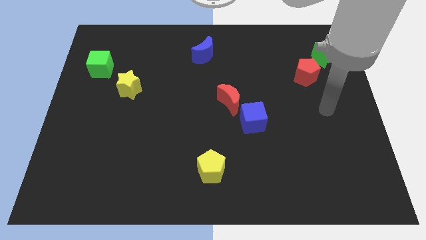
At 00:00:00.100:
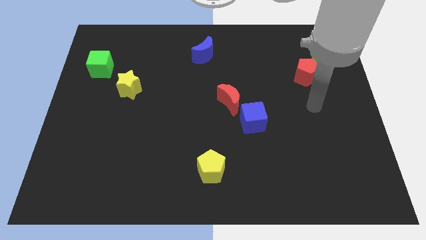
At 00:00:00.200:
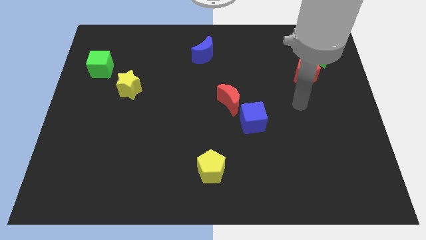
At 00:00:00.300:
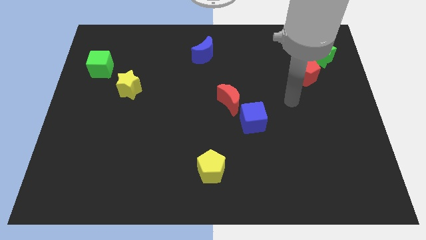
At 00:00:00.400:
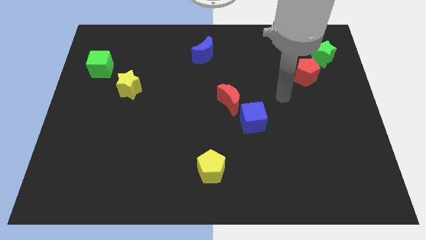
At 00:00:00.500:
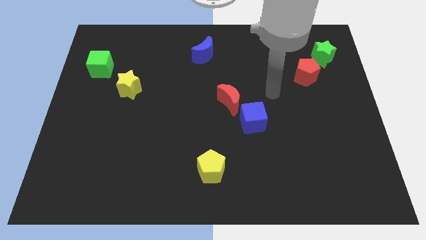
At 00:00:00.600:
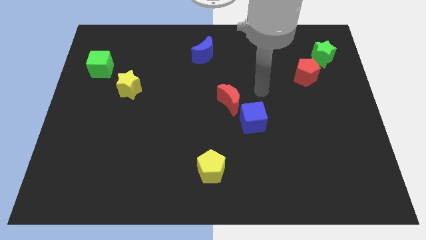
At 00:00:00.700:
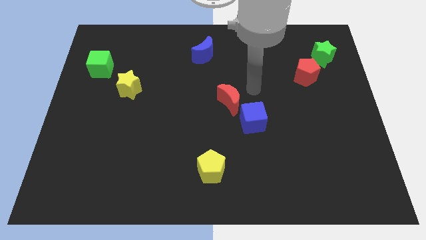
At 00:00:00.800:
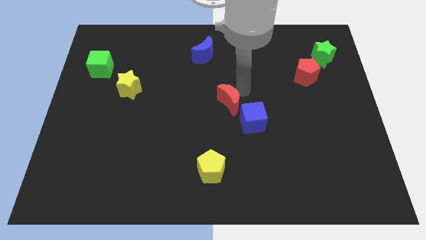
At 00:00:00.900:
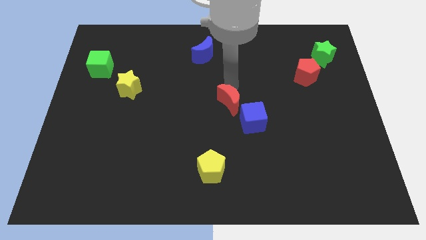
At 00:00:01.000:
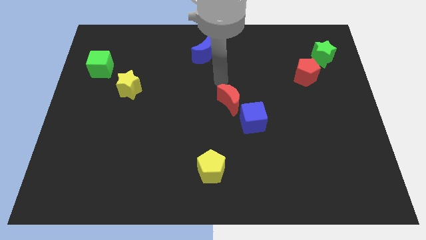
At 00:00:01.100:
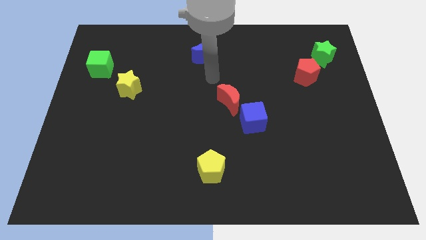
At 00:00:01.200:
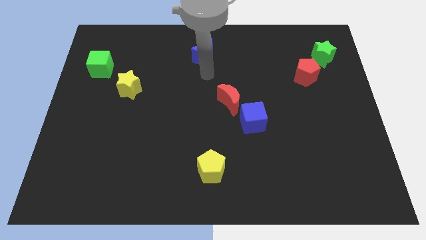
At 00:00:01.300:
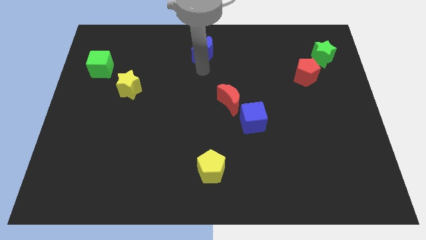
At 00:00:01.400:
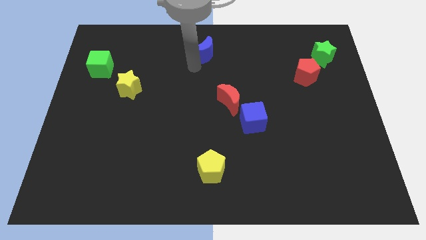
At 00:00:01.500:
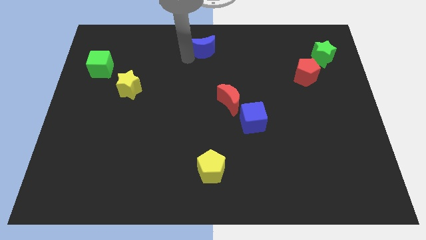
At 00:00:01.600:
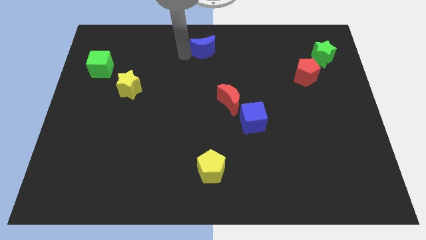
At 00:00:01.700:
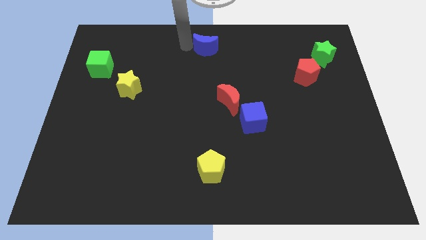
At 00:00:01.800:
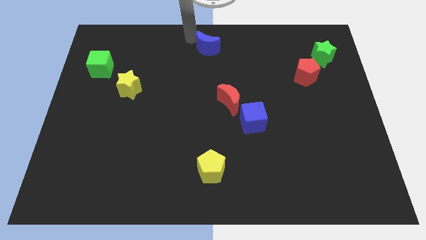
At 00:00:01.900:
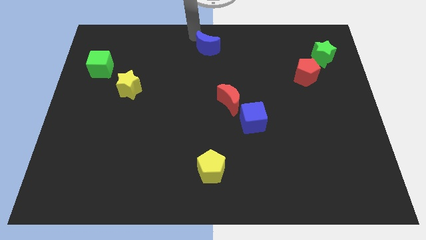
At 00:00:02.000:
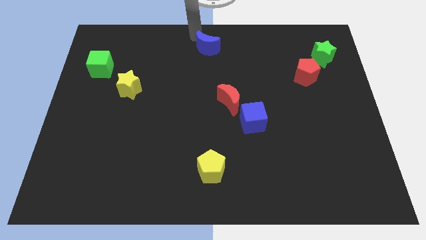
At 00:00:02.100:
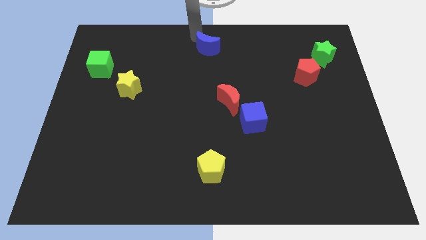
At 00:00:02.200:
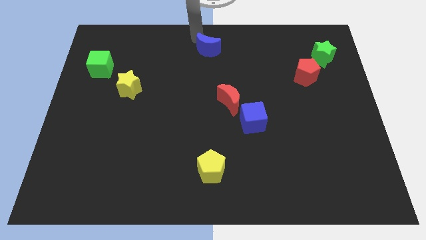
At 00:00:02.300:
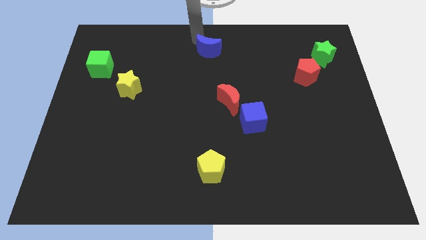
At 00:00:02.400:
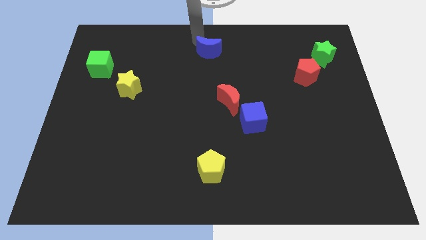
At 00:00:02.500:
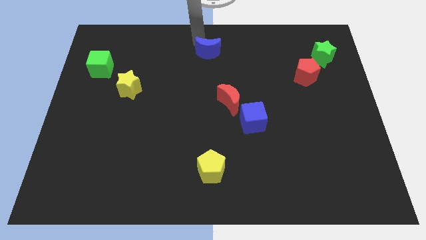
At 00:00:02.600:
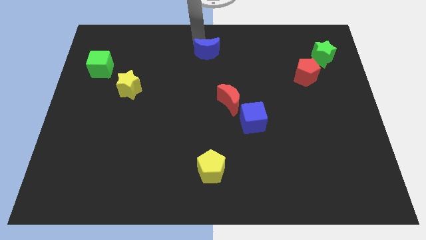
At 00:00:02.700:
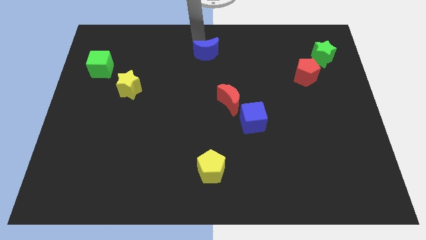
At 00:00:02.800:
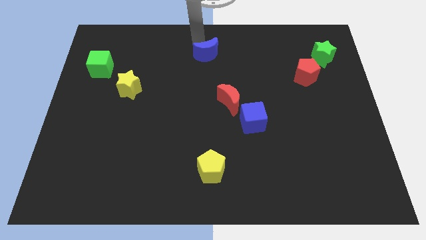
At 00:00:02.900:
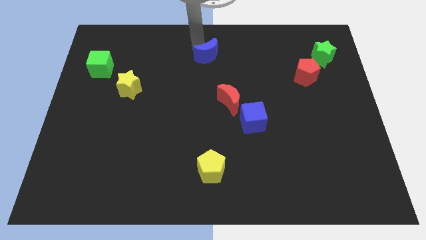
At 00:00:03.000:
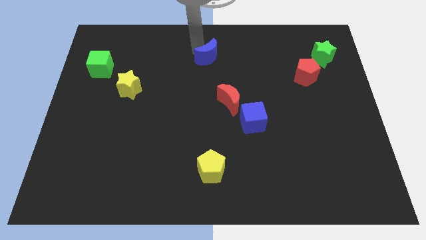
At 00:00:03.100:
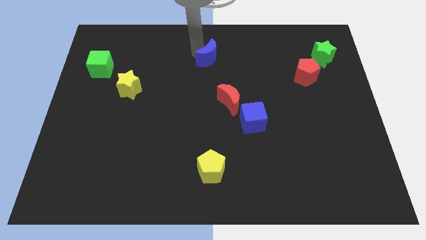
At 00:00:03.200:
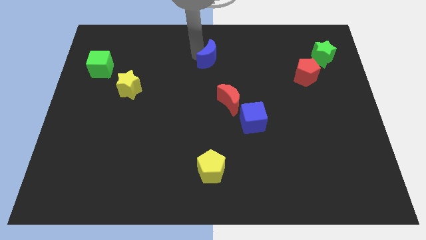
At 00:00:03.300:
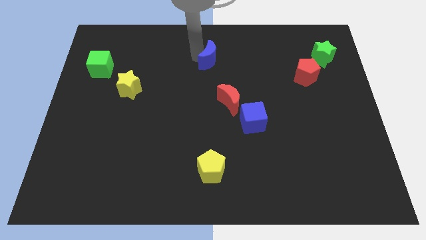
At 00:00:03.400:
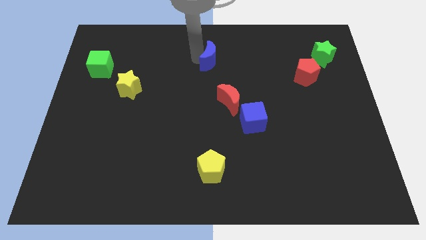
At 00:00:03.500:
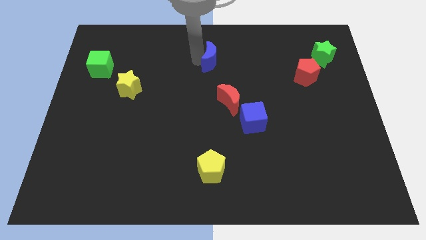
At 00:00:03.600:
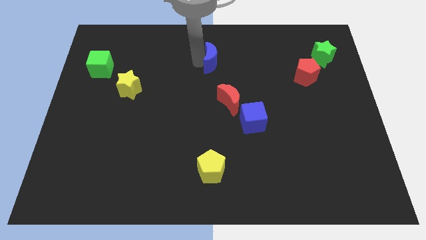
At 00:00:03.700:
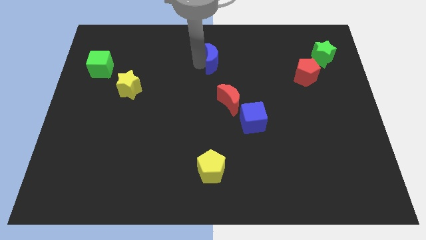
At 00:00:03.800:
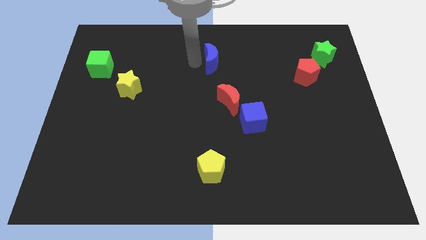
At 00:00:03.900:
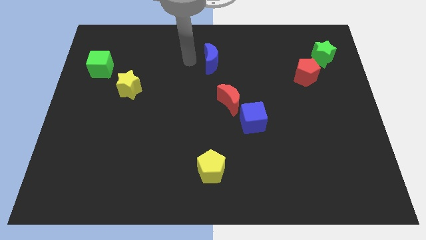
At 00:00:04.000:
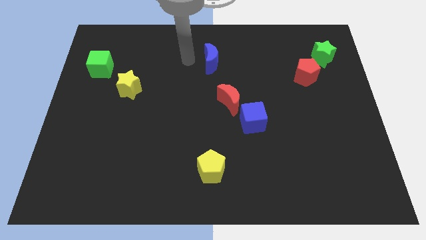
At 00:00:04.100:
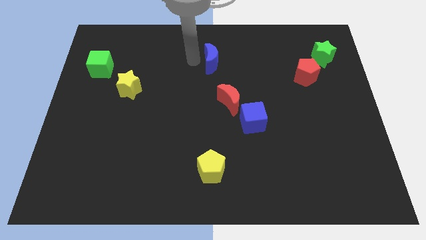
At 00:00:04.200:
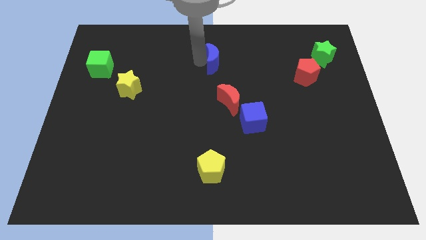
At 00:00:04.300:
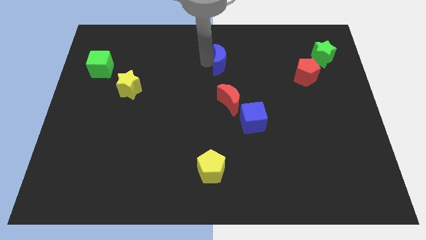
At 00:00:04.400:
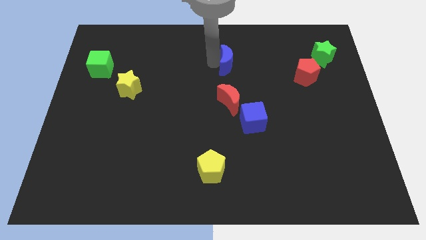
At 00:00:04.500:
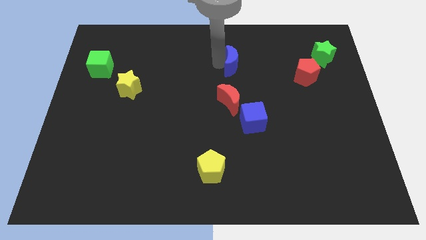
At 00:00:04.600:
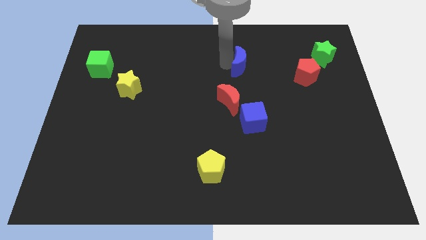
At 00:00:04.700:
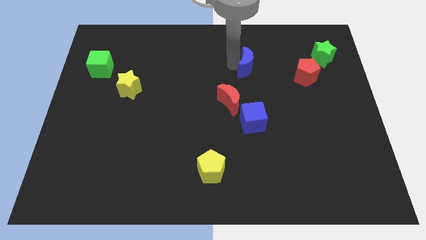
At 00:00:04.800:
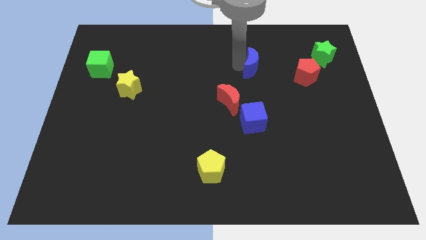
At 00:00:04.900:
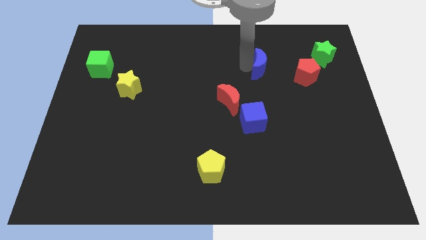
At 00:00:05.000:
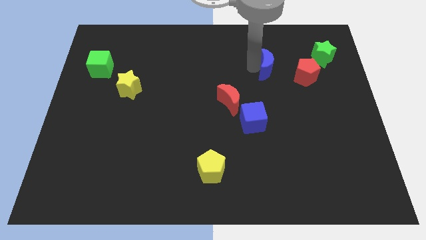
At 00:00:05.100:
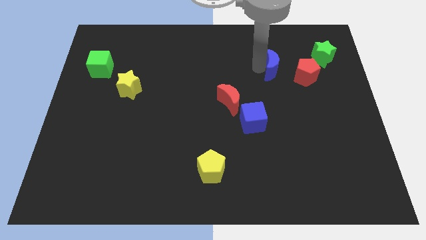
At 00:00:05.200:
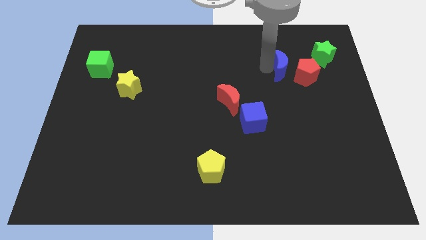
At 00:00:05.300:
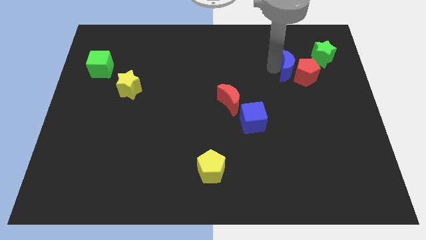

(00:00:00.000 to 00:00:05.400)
move the blue moon towards the red pentagon

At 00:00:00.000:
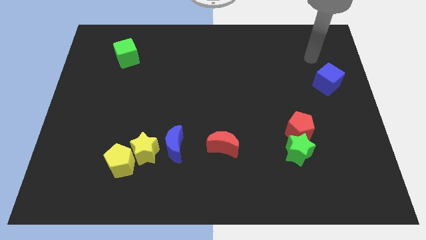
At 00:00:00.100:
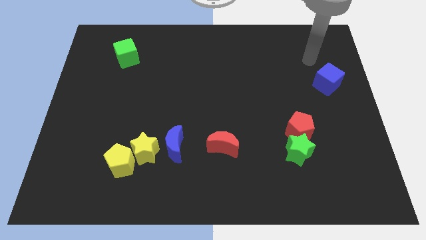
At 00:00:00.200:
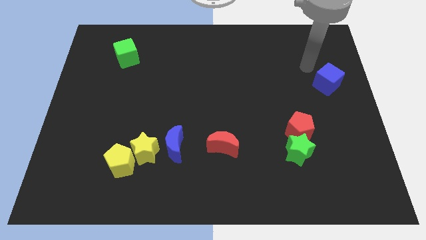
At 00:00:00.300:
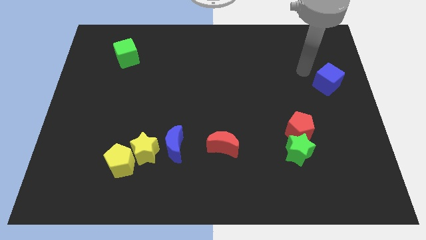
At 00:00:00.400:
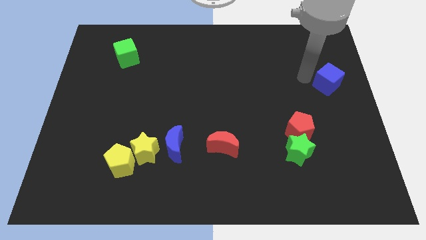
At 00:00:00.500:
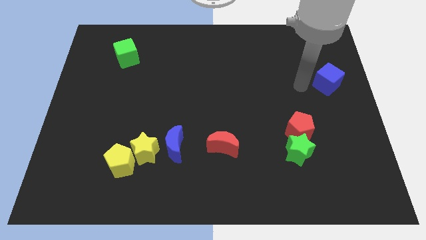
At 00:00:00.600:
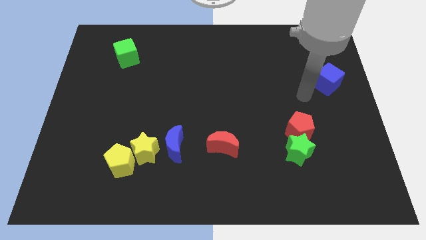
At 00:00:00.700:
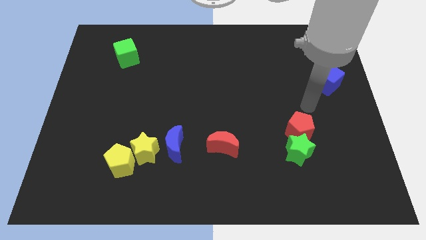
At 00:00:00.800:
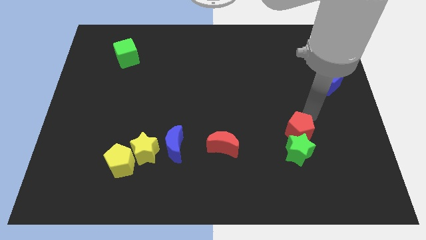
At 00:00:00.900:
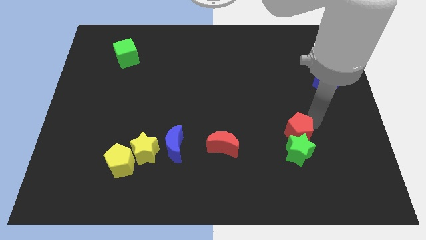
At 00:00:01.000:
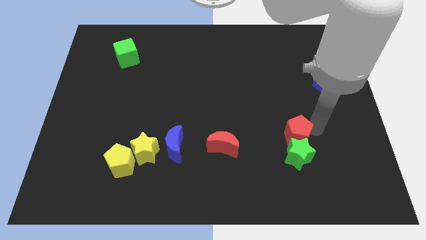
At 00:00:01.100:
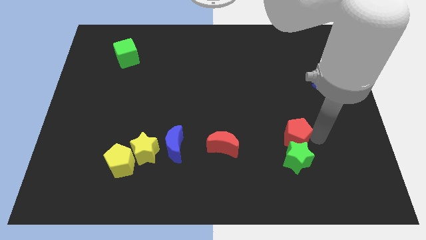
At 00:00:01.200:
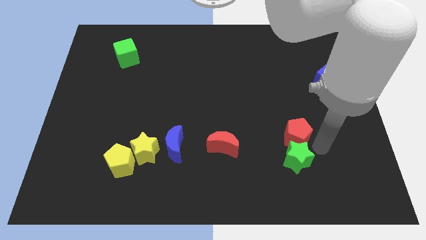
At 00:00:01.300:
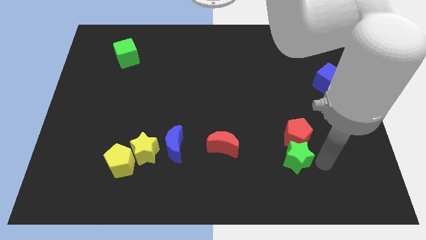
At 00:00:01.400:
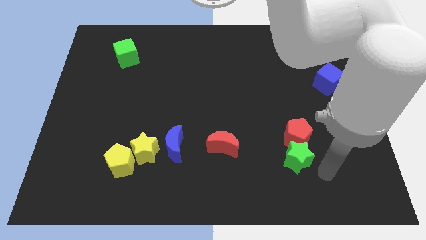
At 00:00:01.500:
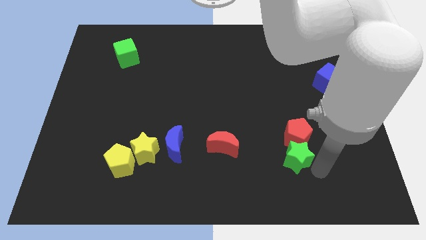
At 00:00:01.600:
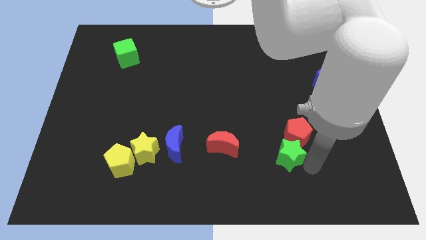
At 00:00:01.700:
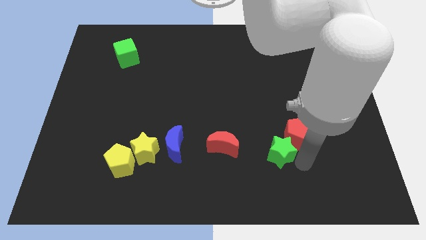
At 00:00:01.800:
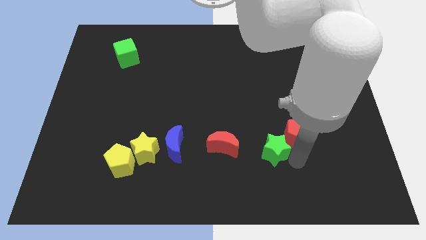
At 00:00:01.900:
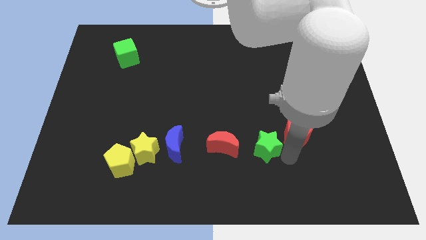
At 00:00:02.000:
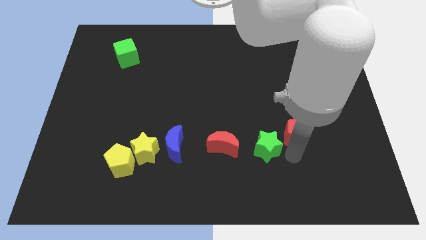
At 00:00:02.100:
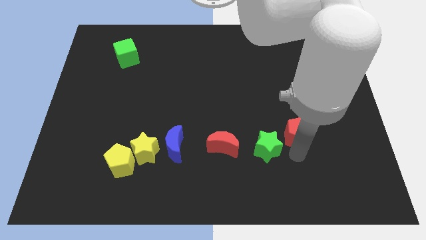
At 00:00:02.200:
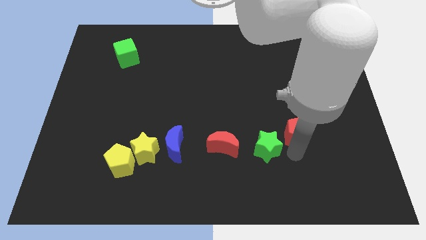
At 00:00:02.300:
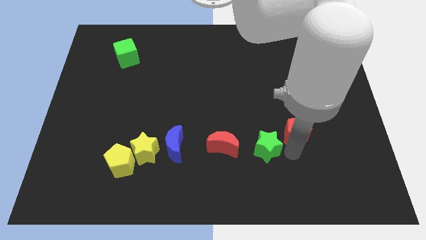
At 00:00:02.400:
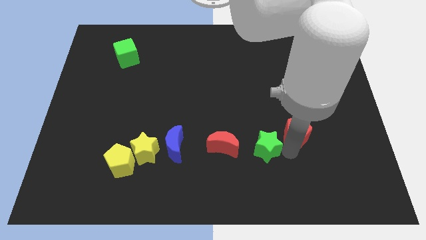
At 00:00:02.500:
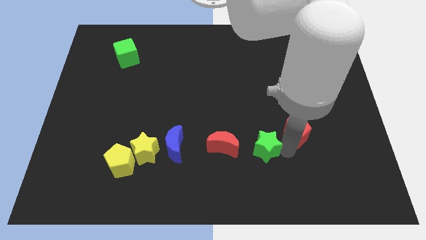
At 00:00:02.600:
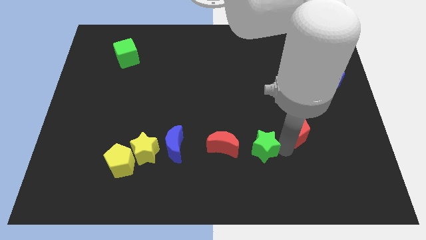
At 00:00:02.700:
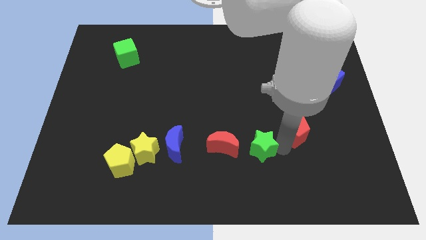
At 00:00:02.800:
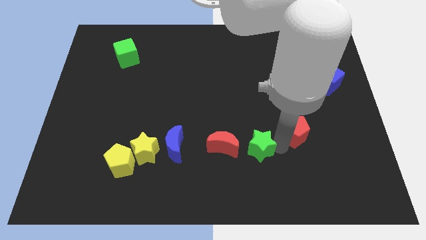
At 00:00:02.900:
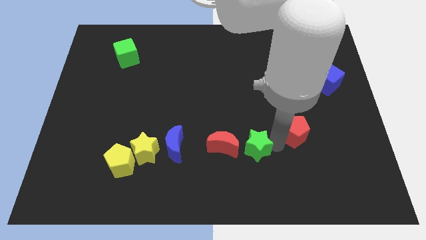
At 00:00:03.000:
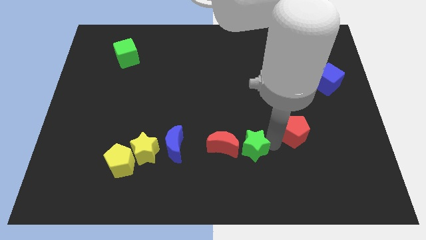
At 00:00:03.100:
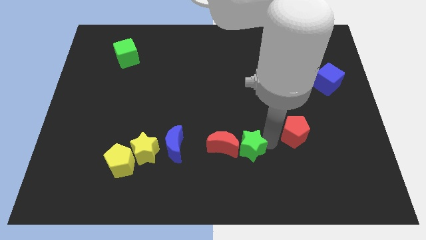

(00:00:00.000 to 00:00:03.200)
put the green star to the red moon
